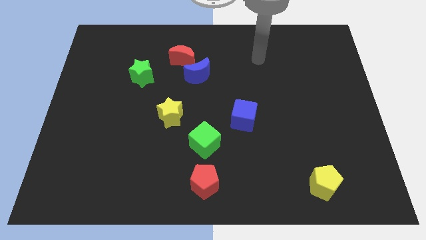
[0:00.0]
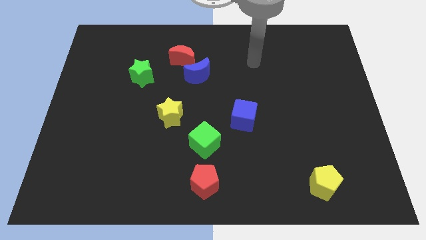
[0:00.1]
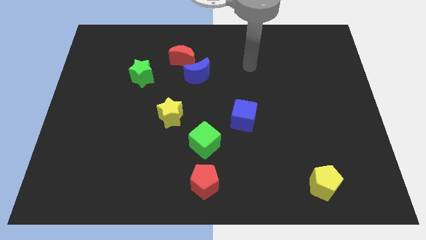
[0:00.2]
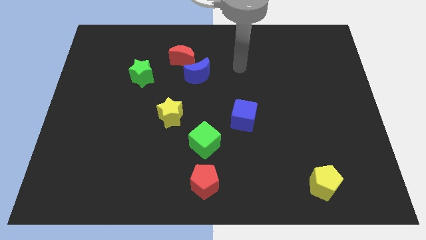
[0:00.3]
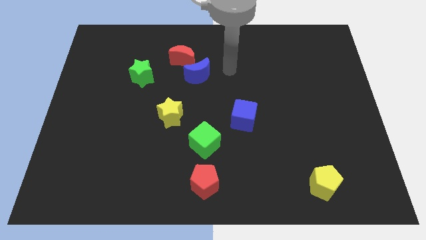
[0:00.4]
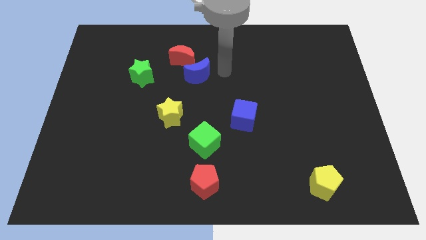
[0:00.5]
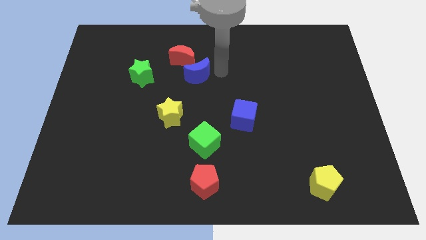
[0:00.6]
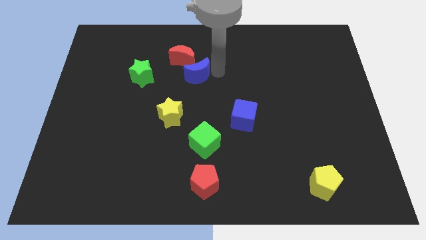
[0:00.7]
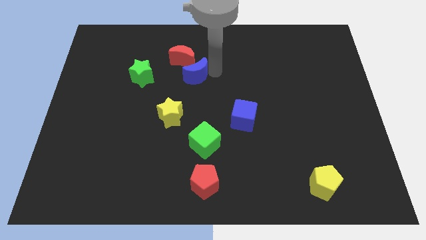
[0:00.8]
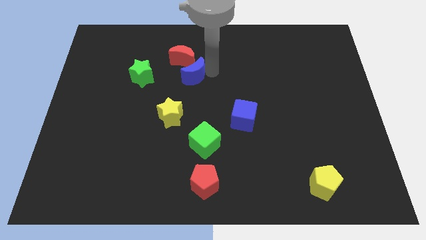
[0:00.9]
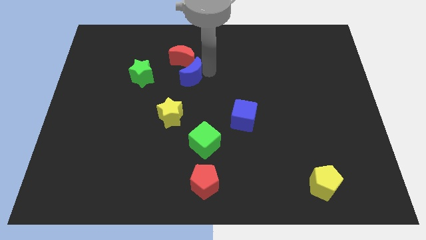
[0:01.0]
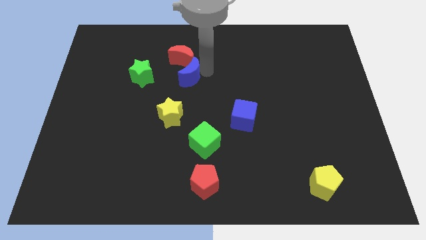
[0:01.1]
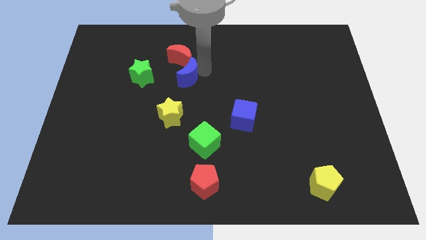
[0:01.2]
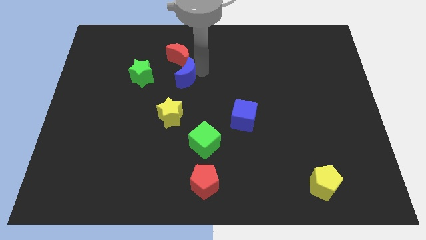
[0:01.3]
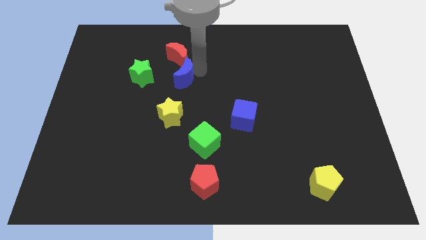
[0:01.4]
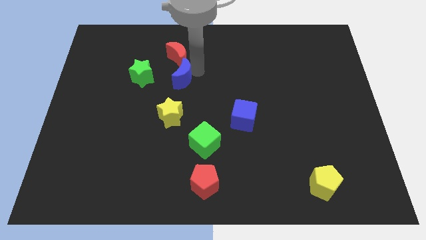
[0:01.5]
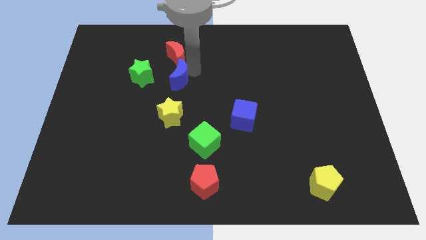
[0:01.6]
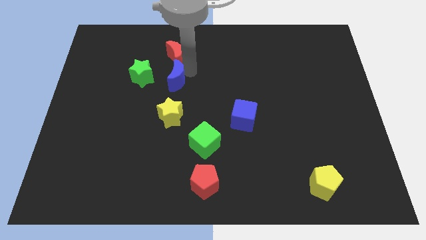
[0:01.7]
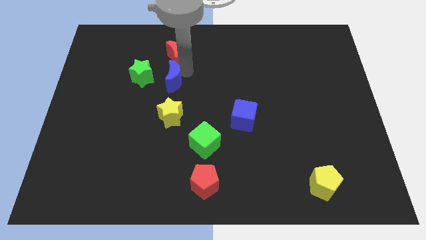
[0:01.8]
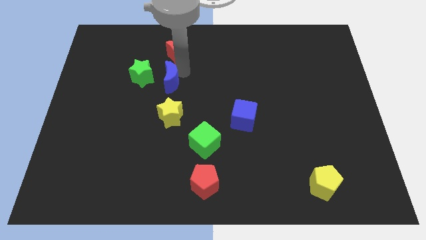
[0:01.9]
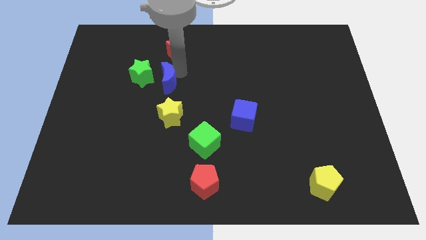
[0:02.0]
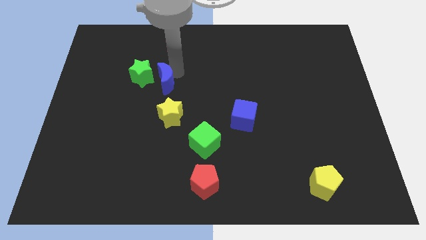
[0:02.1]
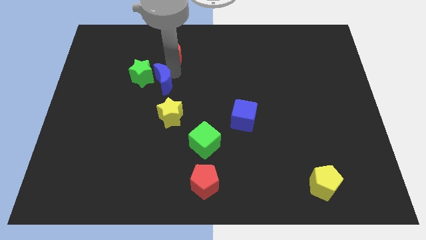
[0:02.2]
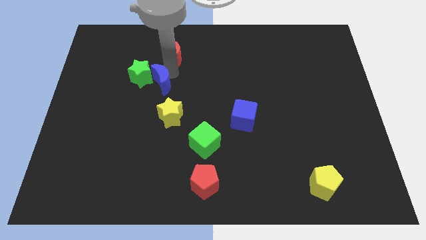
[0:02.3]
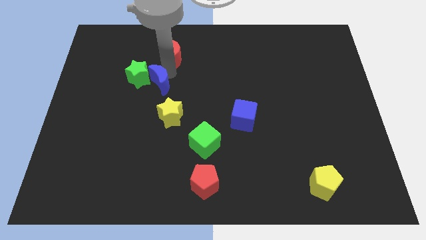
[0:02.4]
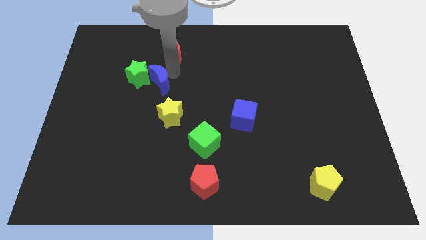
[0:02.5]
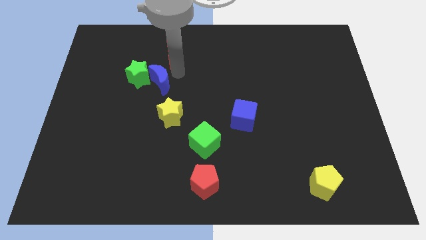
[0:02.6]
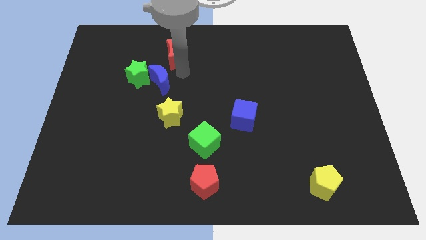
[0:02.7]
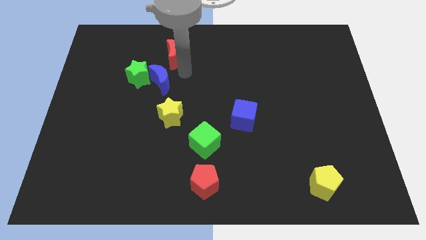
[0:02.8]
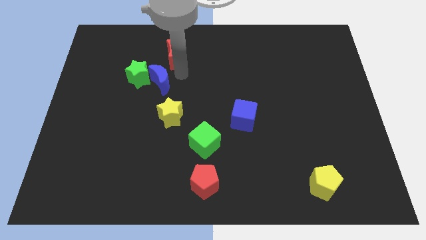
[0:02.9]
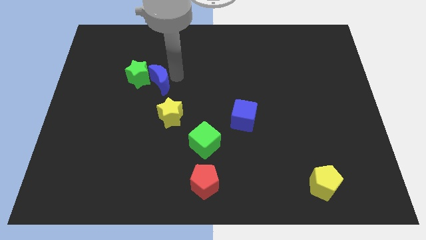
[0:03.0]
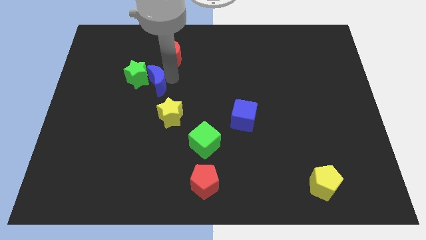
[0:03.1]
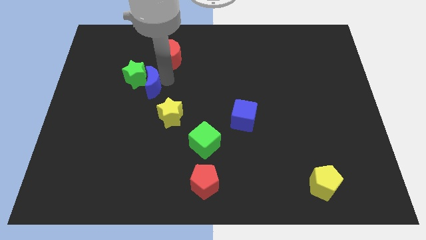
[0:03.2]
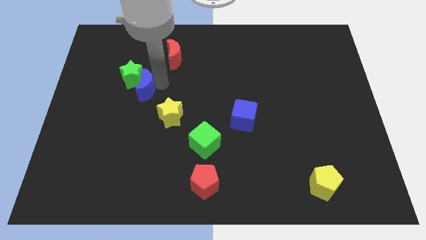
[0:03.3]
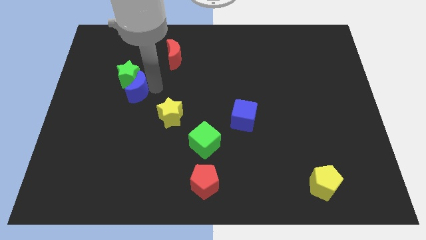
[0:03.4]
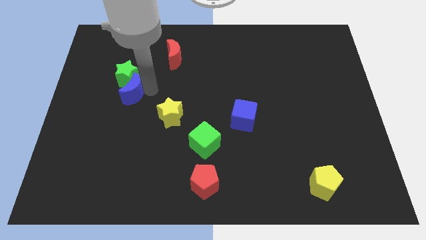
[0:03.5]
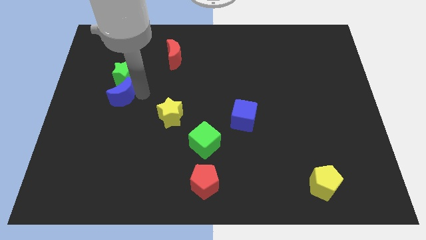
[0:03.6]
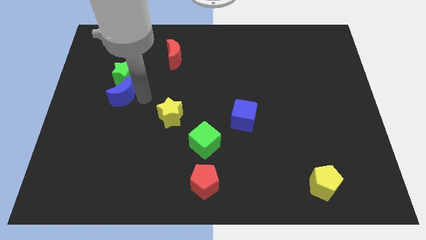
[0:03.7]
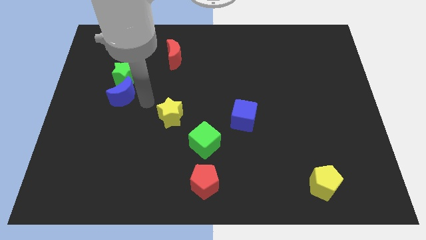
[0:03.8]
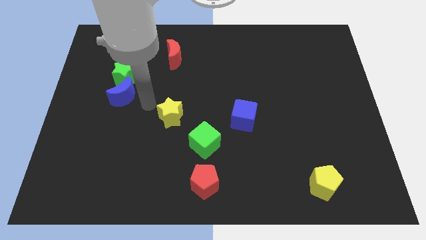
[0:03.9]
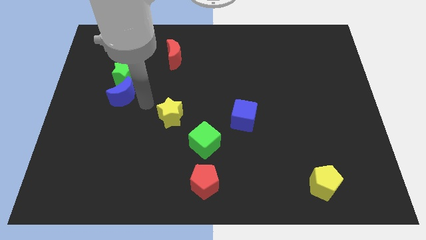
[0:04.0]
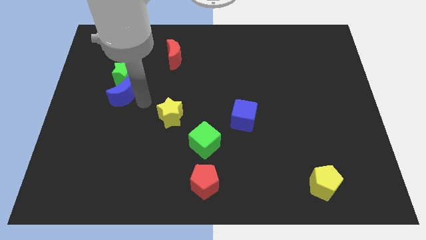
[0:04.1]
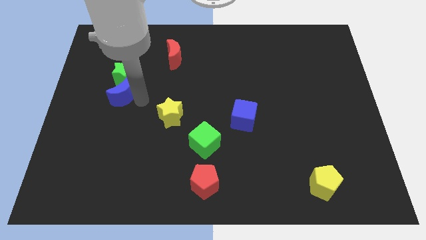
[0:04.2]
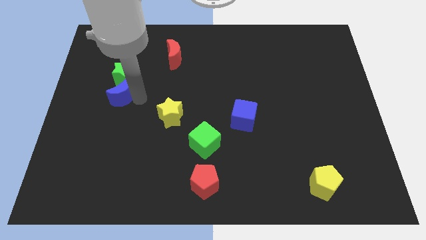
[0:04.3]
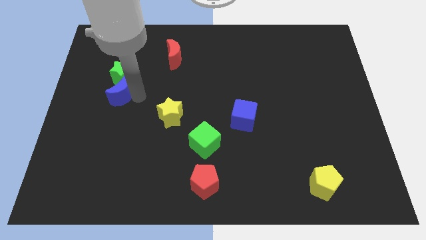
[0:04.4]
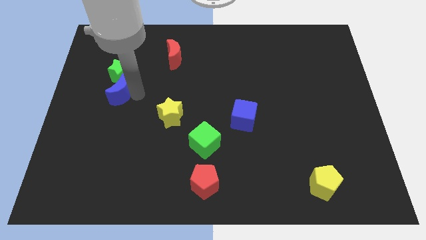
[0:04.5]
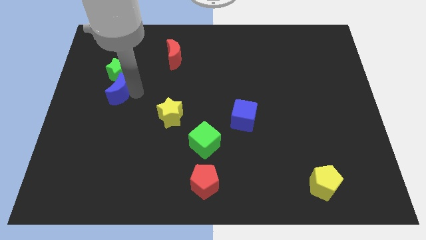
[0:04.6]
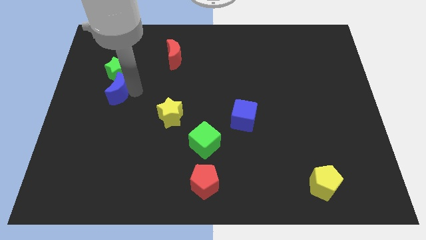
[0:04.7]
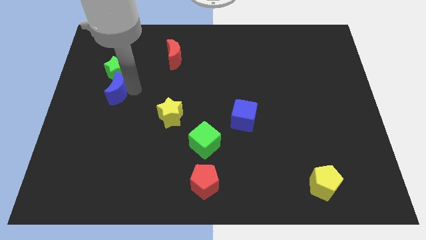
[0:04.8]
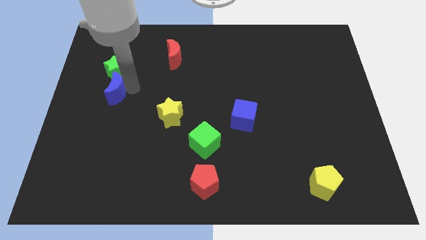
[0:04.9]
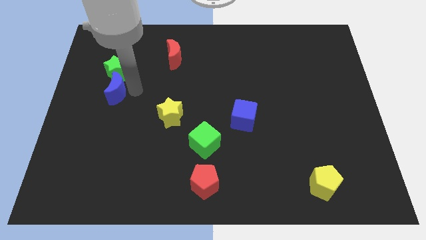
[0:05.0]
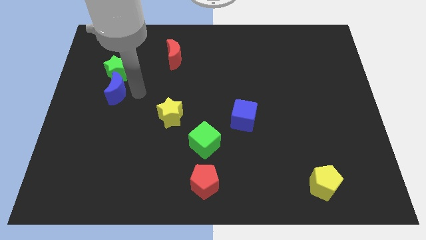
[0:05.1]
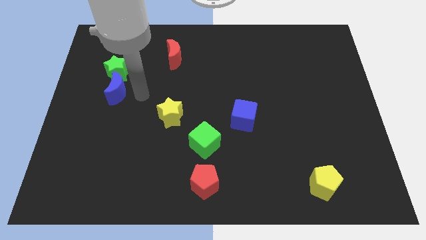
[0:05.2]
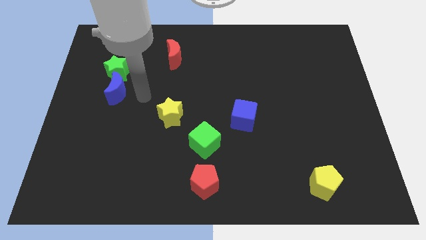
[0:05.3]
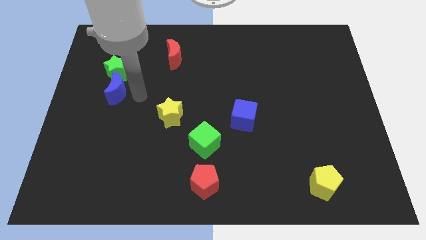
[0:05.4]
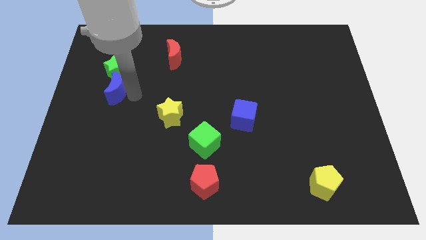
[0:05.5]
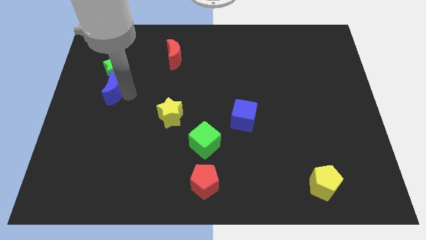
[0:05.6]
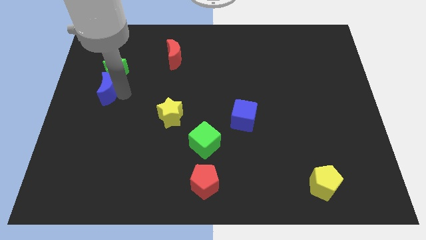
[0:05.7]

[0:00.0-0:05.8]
put the blue moon to the left side of the board

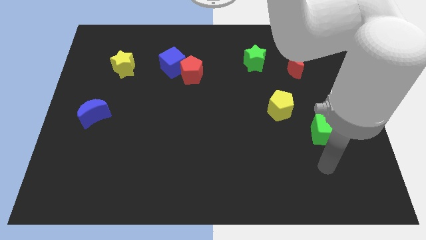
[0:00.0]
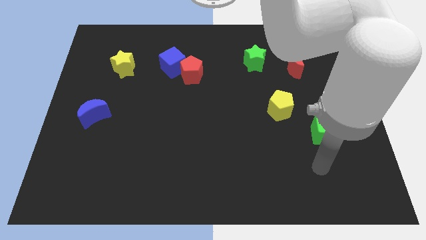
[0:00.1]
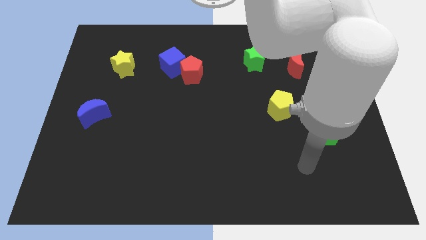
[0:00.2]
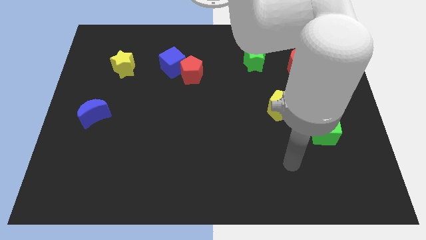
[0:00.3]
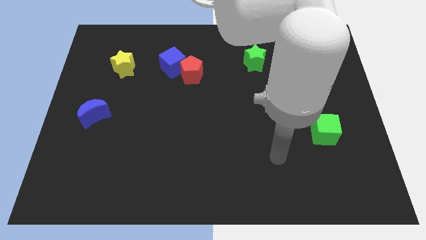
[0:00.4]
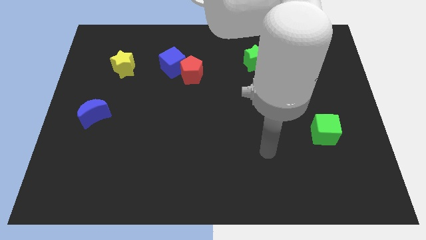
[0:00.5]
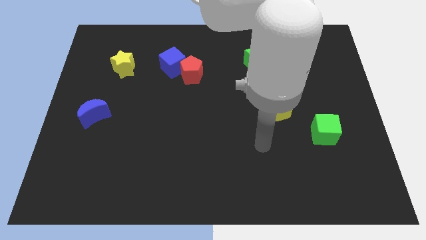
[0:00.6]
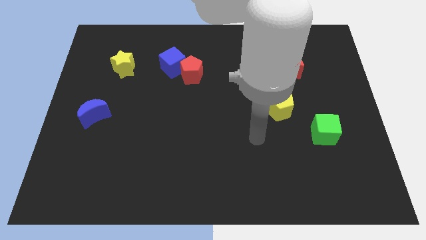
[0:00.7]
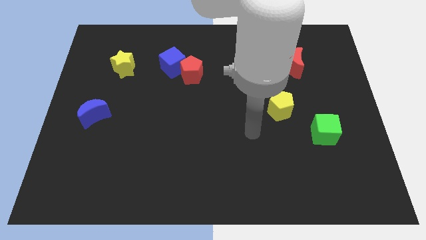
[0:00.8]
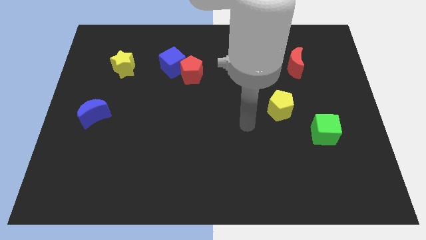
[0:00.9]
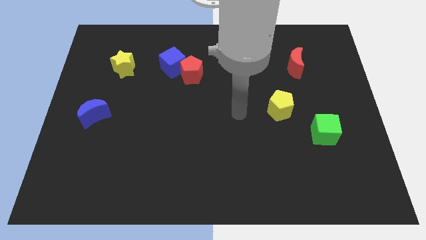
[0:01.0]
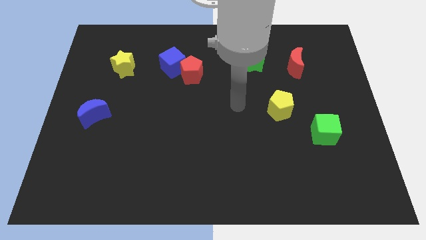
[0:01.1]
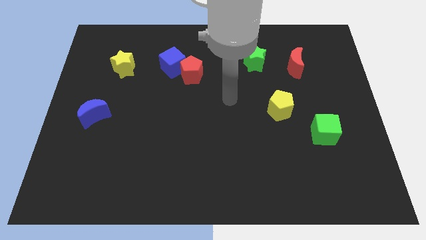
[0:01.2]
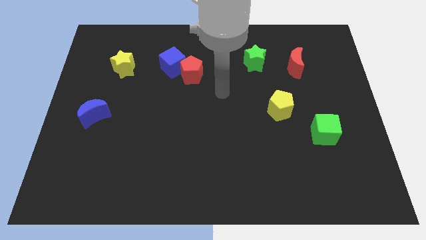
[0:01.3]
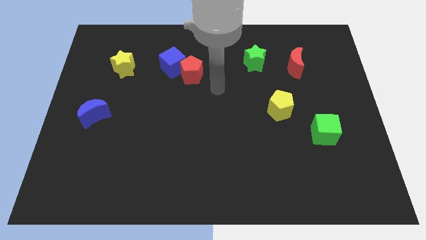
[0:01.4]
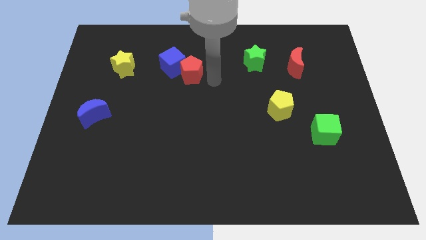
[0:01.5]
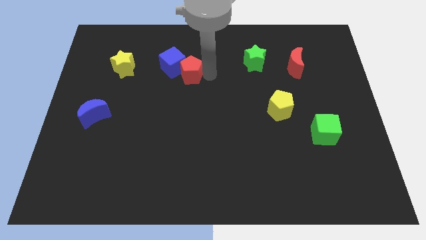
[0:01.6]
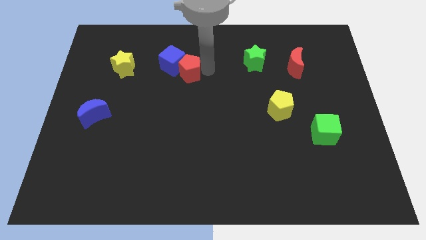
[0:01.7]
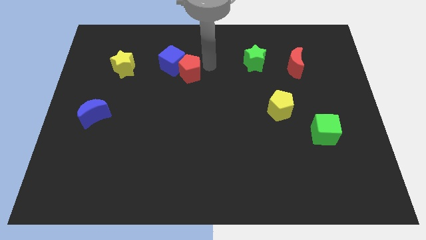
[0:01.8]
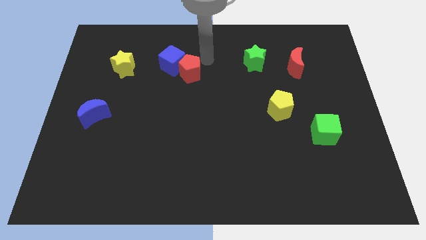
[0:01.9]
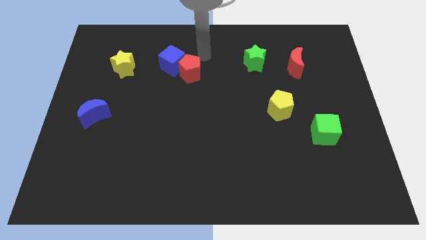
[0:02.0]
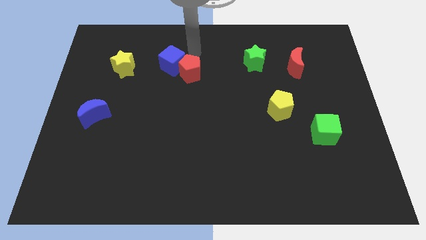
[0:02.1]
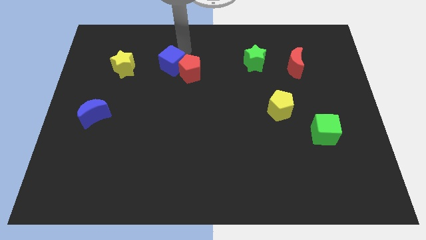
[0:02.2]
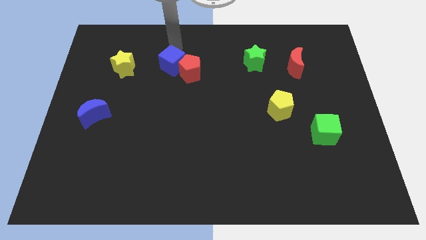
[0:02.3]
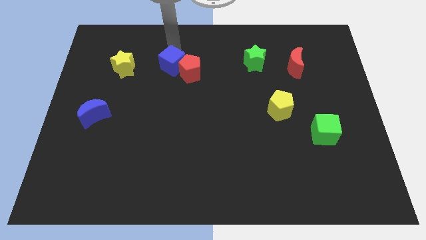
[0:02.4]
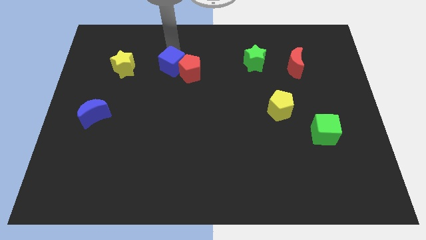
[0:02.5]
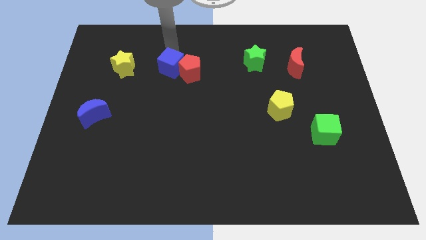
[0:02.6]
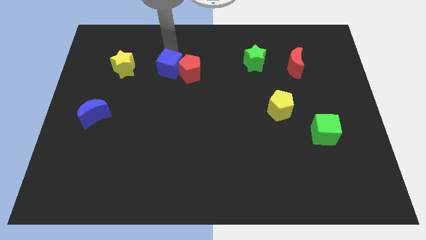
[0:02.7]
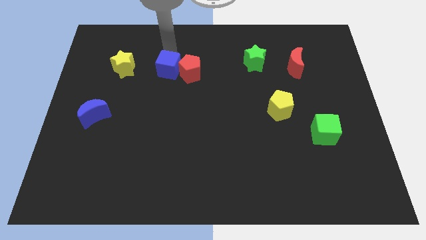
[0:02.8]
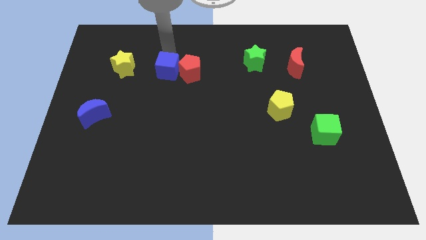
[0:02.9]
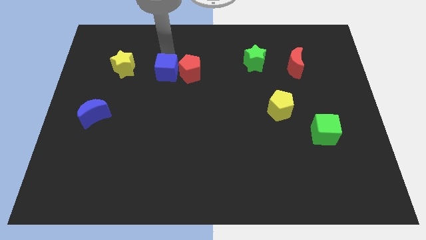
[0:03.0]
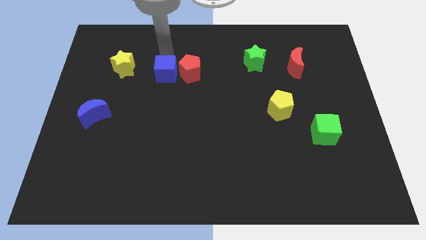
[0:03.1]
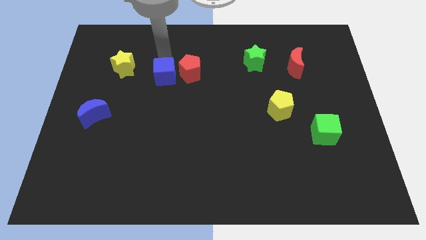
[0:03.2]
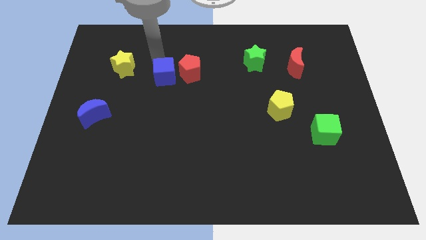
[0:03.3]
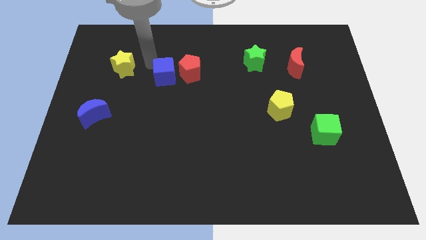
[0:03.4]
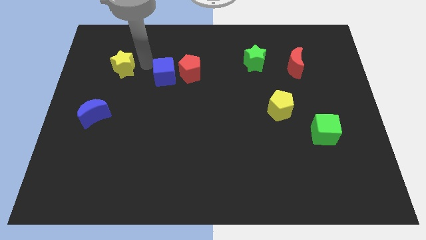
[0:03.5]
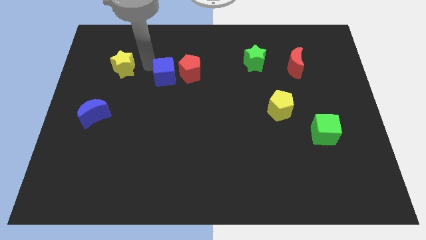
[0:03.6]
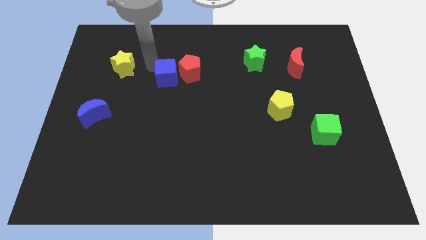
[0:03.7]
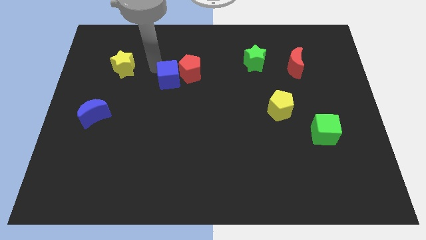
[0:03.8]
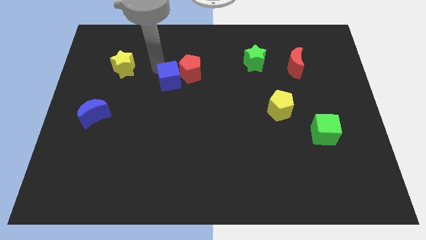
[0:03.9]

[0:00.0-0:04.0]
put the blue cube to the middle
